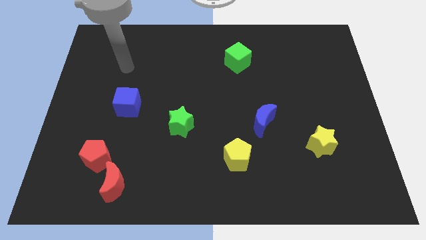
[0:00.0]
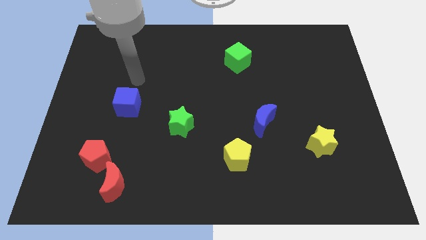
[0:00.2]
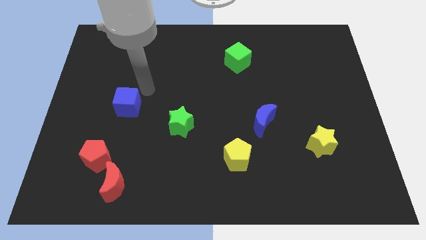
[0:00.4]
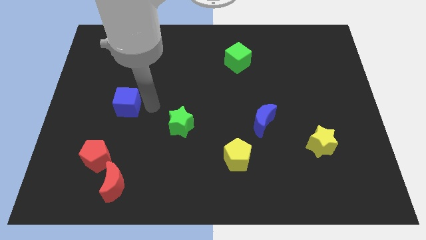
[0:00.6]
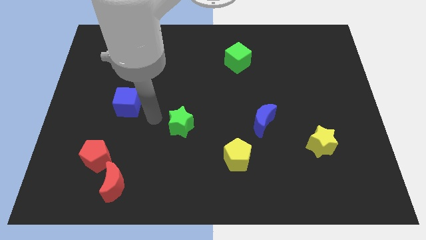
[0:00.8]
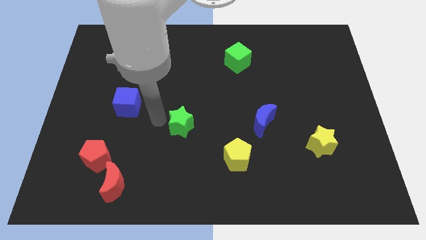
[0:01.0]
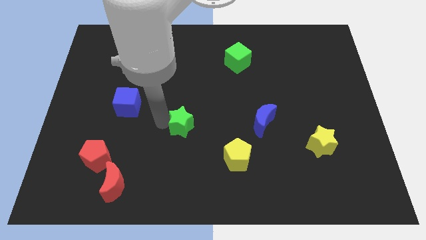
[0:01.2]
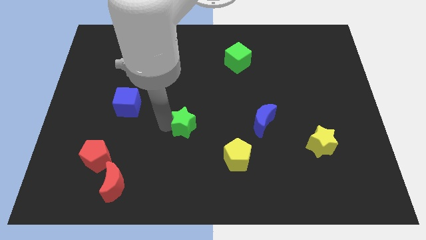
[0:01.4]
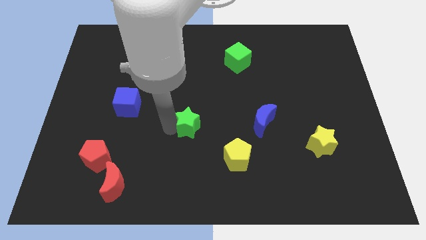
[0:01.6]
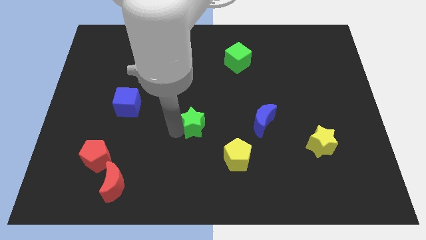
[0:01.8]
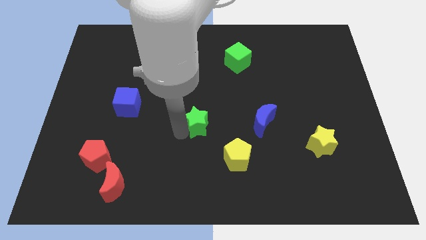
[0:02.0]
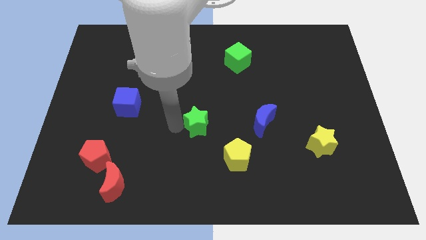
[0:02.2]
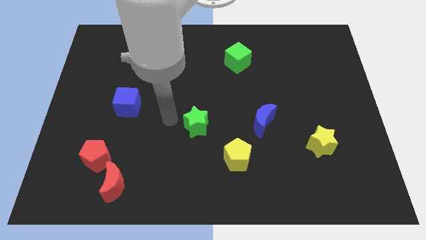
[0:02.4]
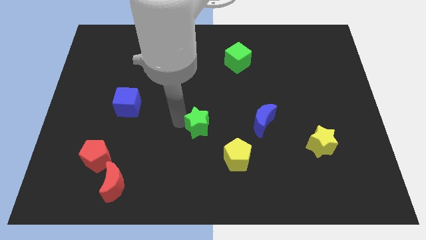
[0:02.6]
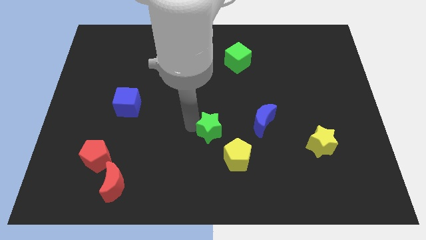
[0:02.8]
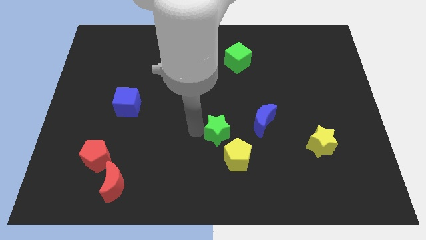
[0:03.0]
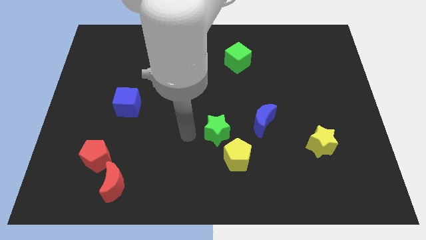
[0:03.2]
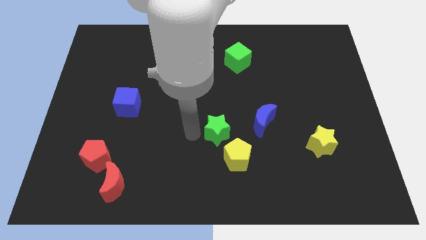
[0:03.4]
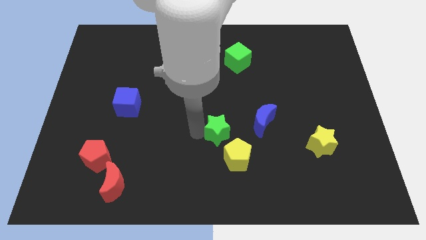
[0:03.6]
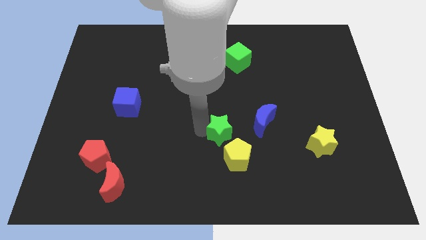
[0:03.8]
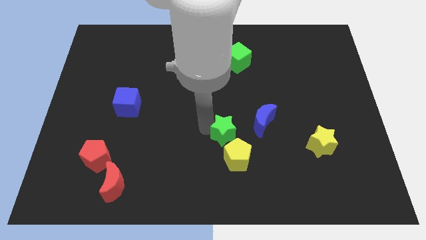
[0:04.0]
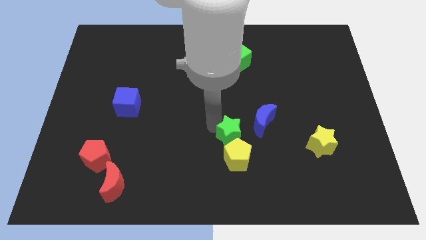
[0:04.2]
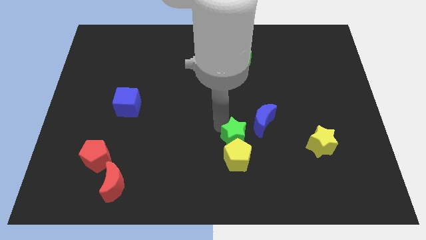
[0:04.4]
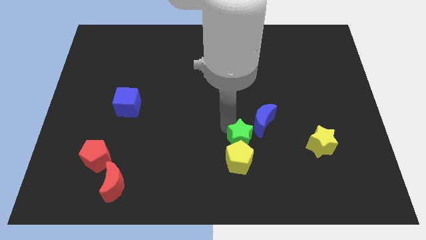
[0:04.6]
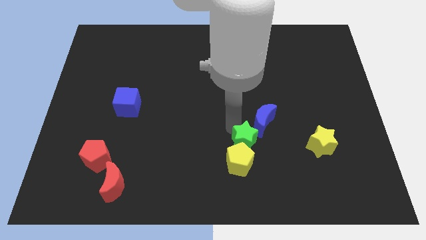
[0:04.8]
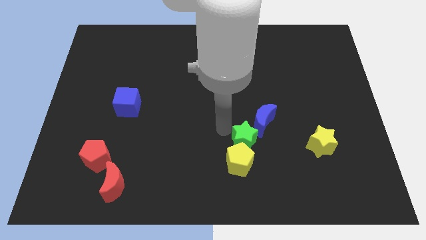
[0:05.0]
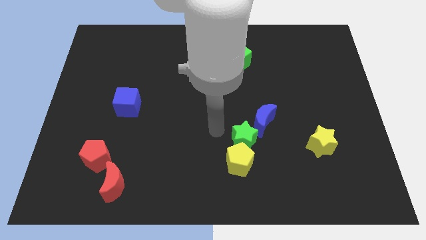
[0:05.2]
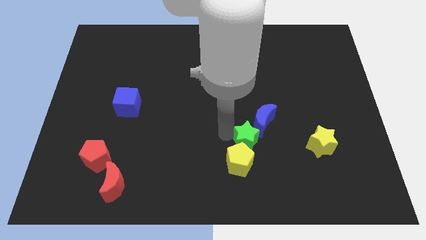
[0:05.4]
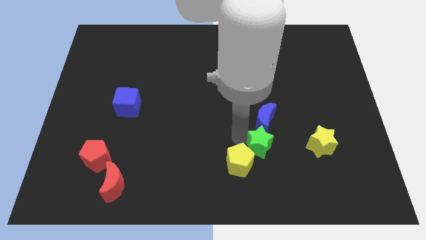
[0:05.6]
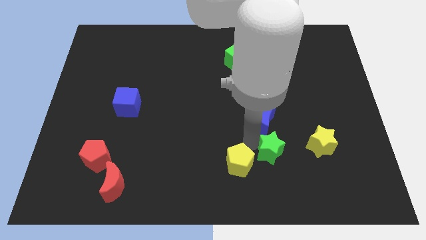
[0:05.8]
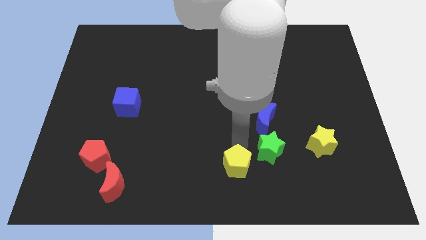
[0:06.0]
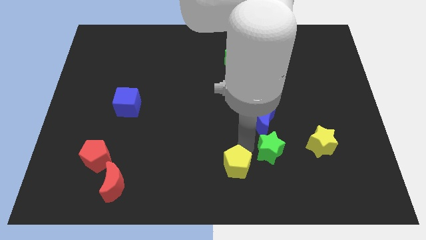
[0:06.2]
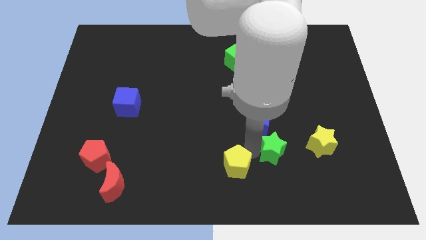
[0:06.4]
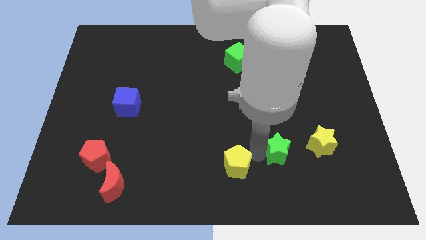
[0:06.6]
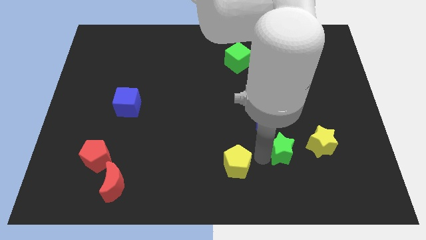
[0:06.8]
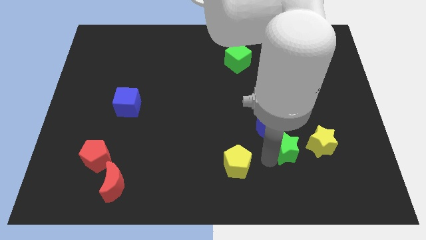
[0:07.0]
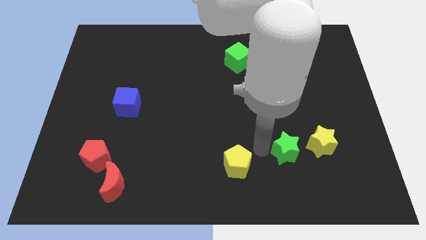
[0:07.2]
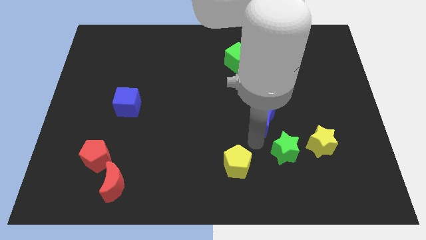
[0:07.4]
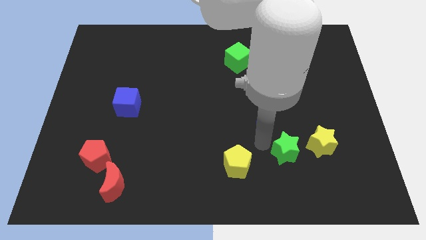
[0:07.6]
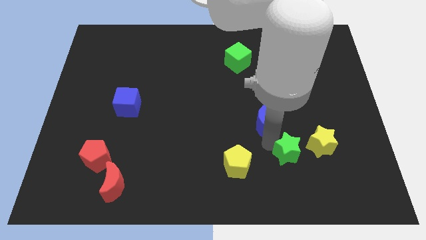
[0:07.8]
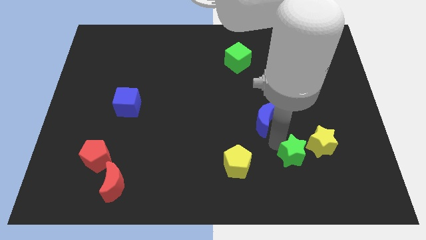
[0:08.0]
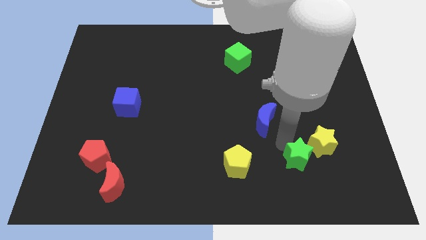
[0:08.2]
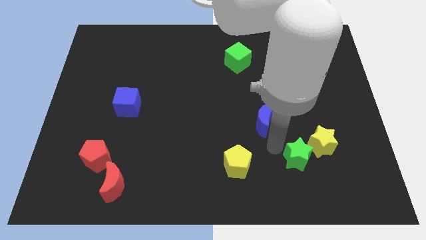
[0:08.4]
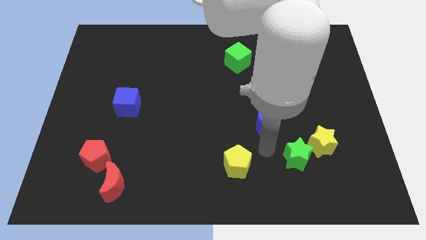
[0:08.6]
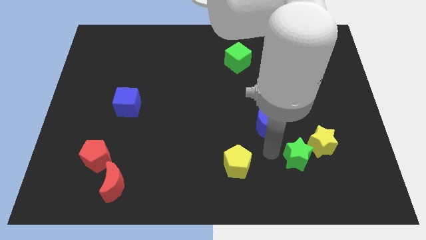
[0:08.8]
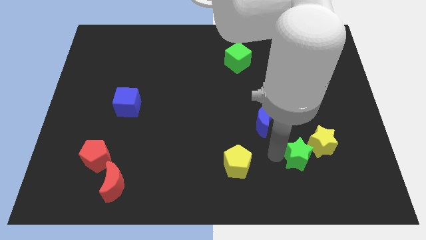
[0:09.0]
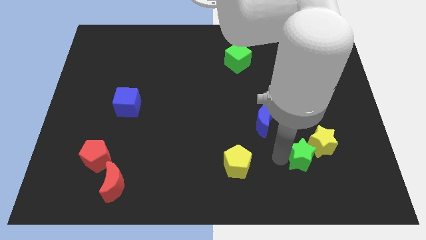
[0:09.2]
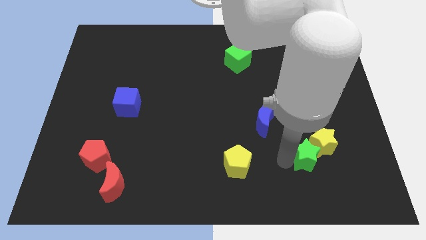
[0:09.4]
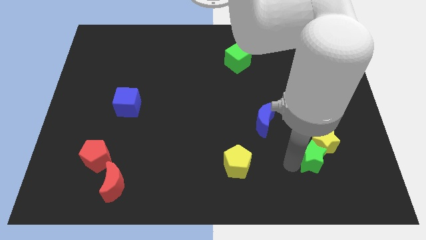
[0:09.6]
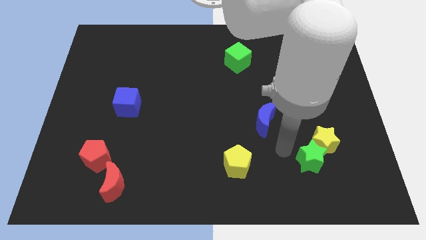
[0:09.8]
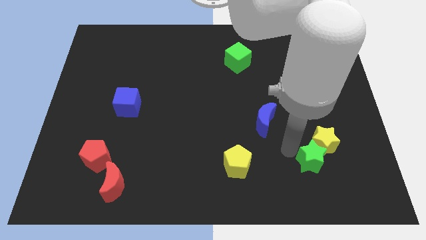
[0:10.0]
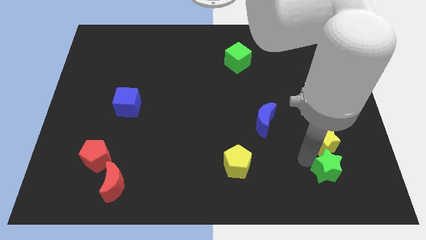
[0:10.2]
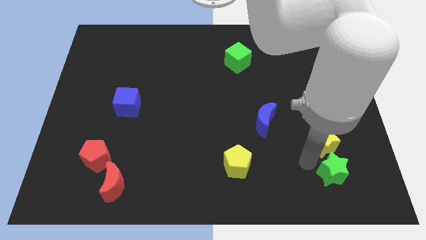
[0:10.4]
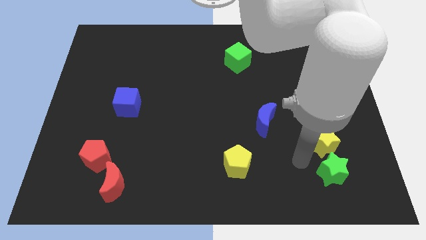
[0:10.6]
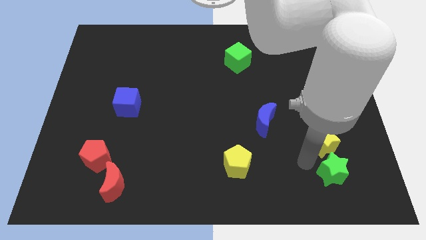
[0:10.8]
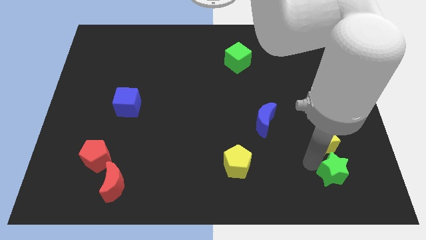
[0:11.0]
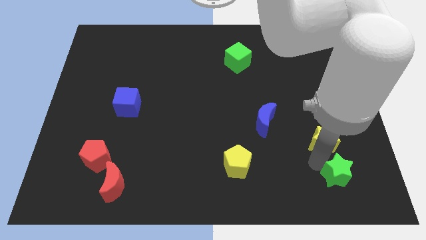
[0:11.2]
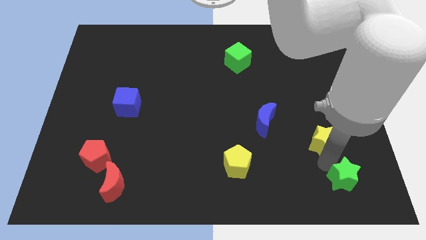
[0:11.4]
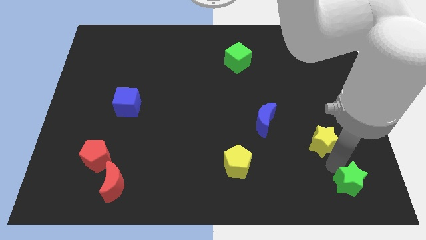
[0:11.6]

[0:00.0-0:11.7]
slide the green star to the lower right corner

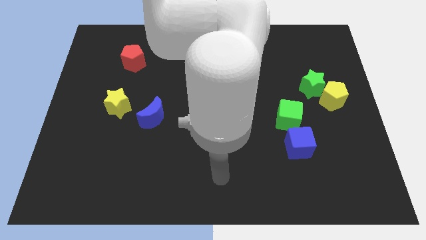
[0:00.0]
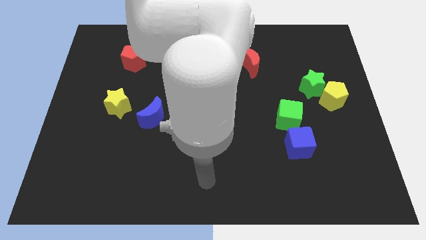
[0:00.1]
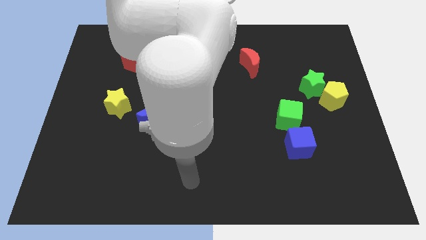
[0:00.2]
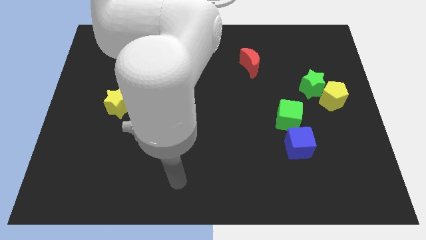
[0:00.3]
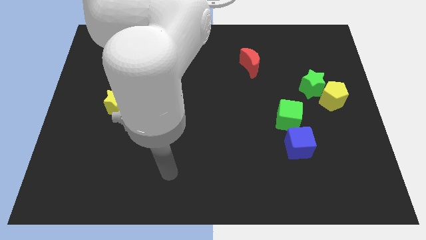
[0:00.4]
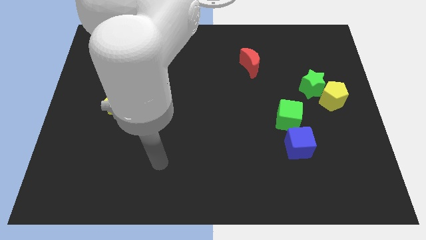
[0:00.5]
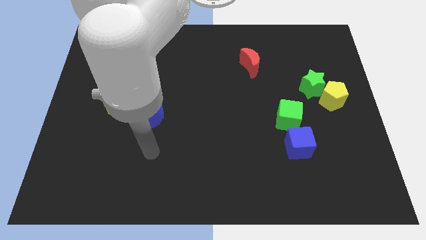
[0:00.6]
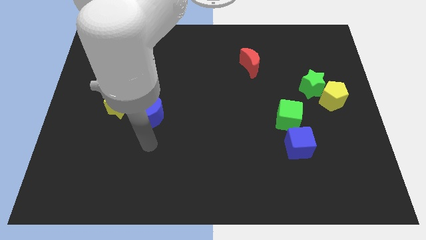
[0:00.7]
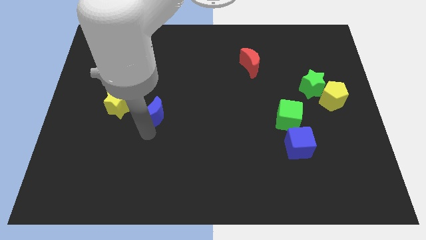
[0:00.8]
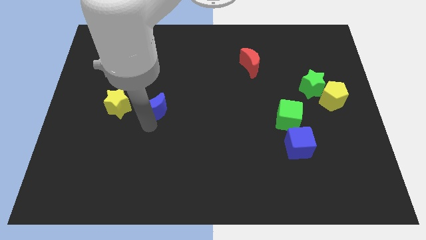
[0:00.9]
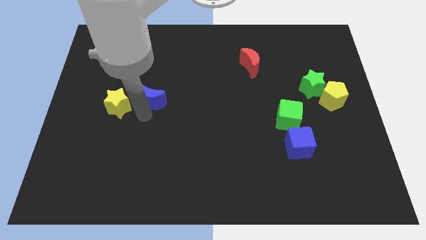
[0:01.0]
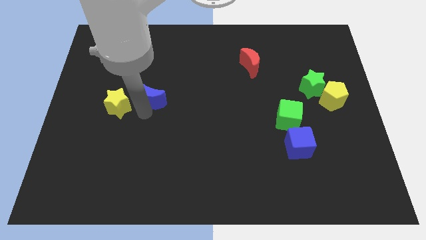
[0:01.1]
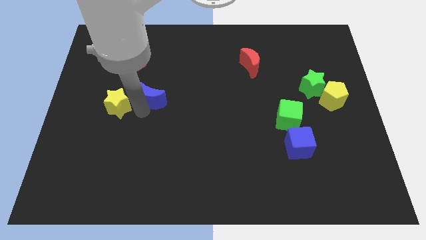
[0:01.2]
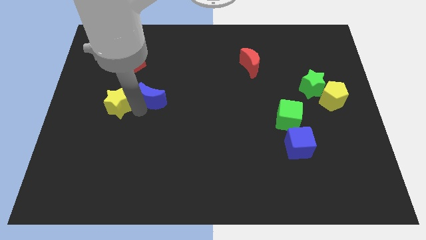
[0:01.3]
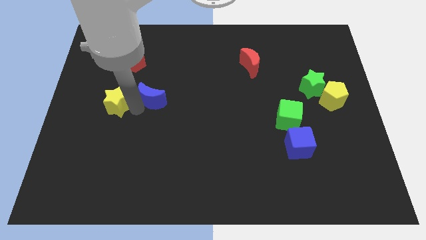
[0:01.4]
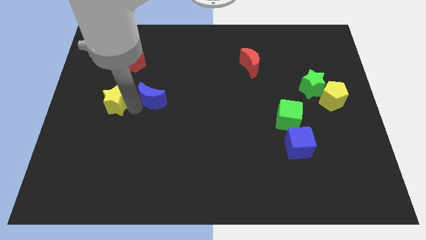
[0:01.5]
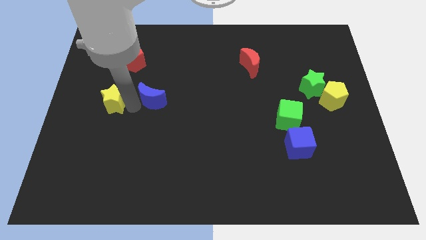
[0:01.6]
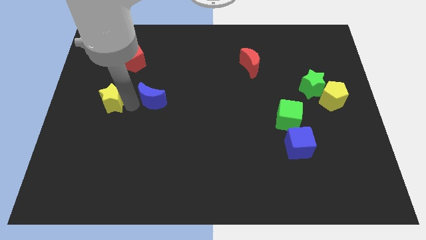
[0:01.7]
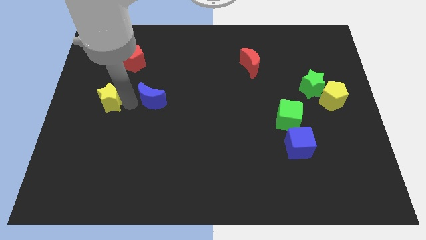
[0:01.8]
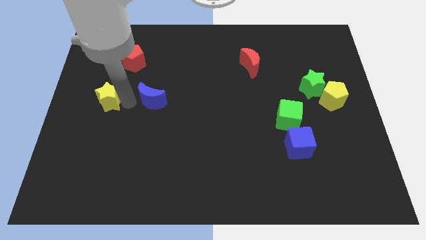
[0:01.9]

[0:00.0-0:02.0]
move the yellow star to the center left
